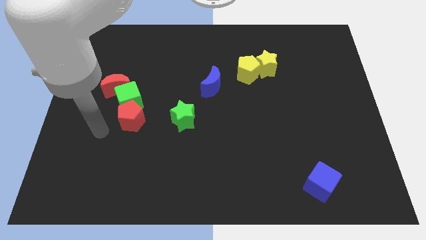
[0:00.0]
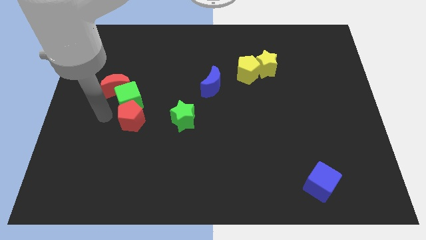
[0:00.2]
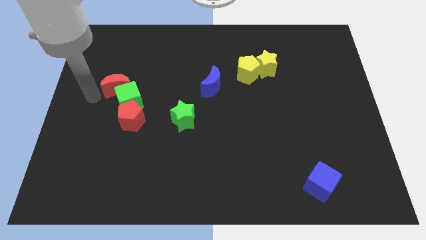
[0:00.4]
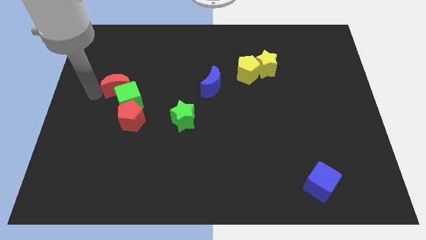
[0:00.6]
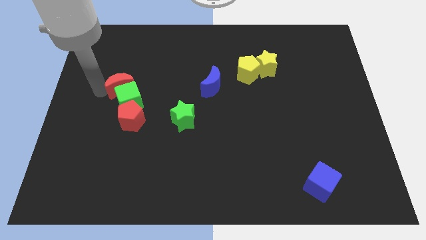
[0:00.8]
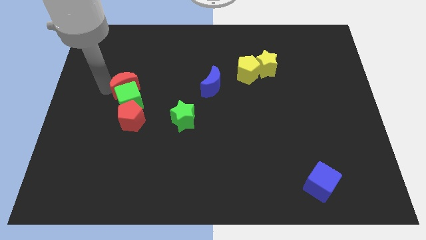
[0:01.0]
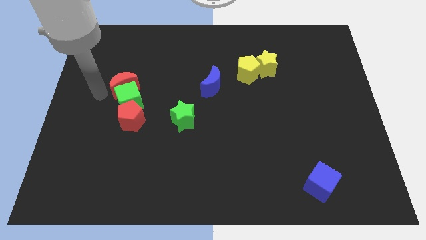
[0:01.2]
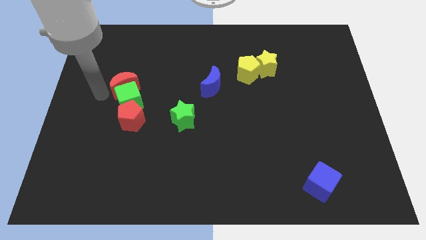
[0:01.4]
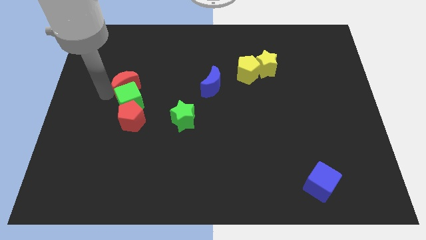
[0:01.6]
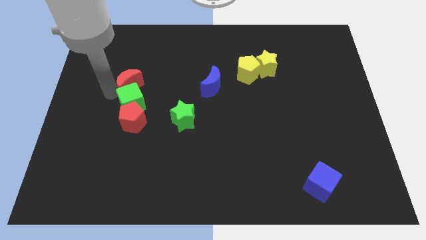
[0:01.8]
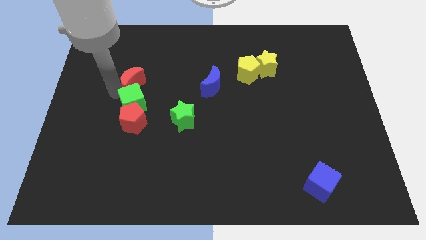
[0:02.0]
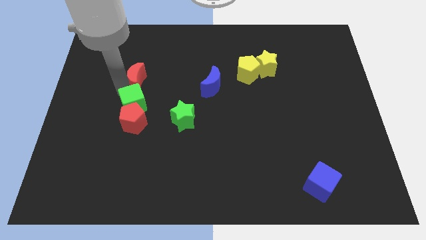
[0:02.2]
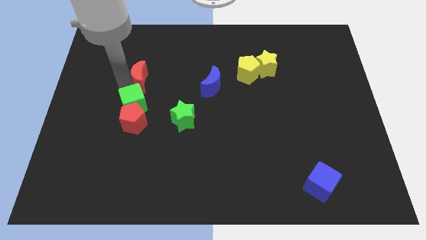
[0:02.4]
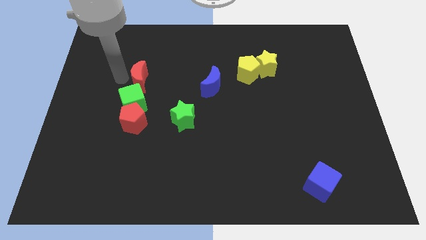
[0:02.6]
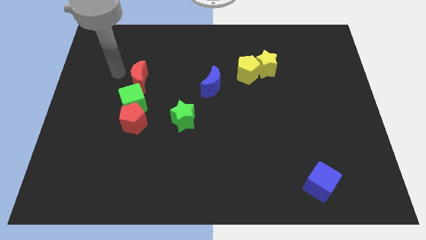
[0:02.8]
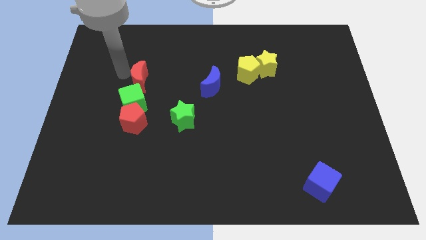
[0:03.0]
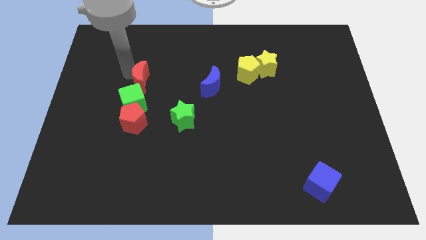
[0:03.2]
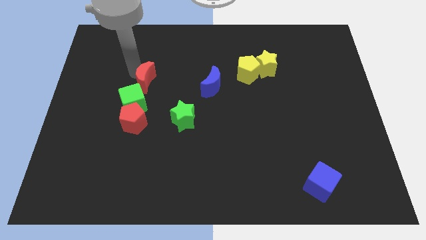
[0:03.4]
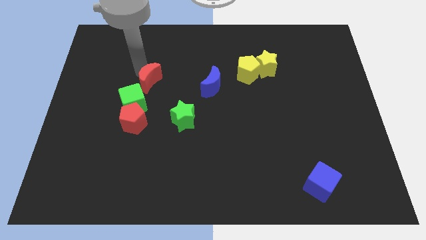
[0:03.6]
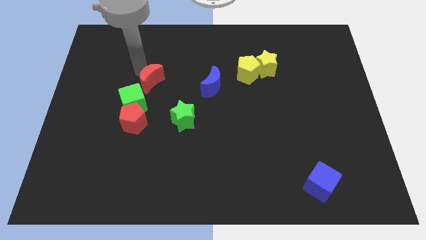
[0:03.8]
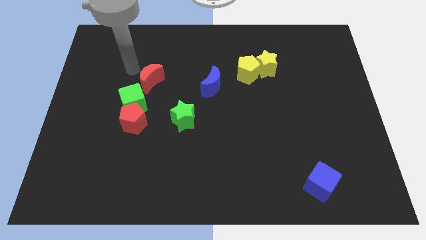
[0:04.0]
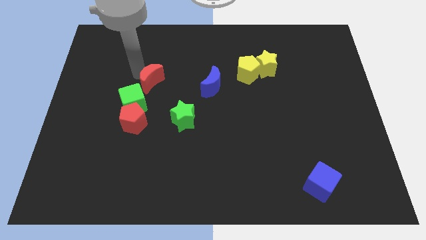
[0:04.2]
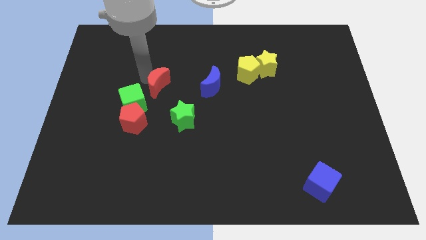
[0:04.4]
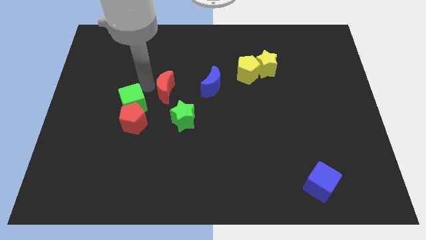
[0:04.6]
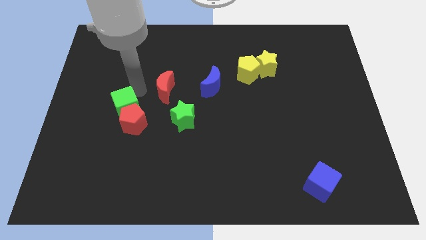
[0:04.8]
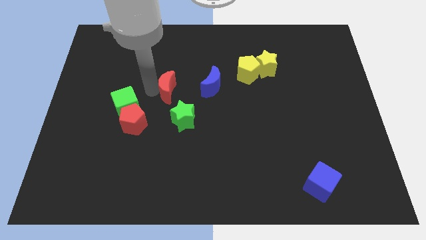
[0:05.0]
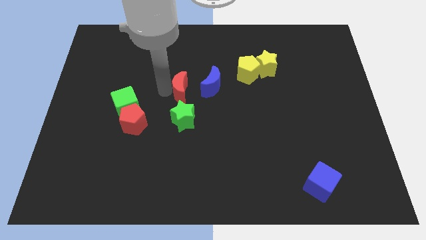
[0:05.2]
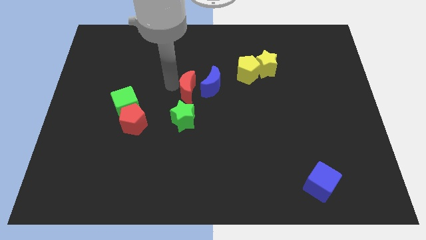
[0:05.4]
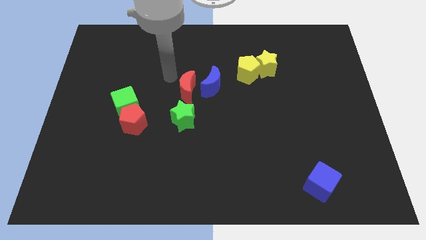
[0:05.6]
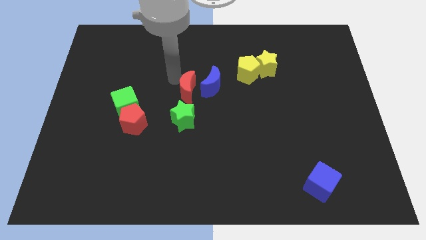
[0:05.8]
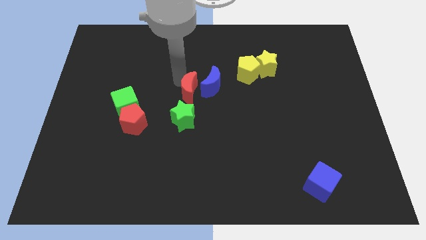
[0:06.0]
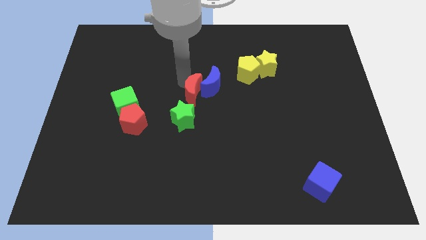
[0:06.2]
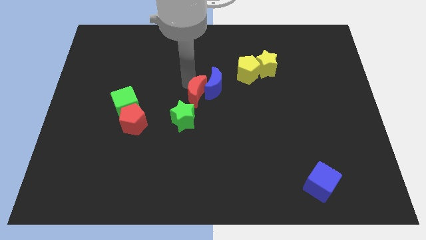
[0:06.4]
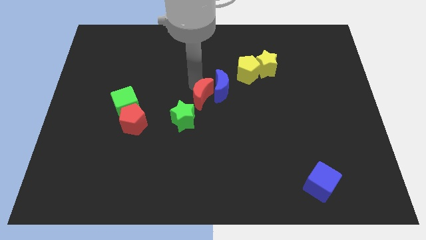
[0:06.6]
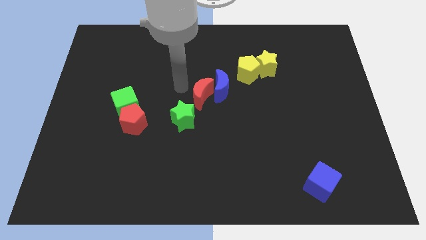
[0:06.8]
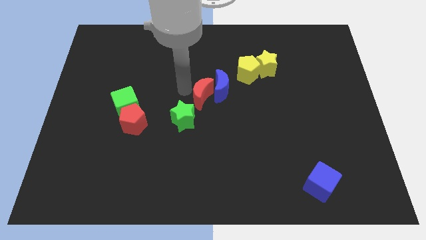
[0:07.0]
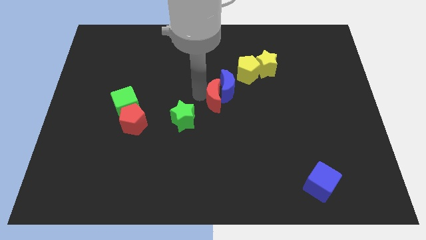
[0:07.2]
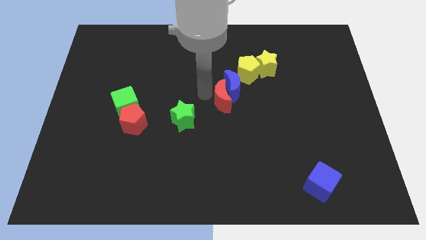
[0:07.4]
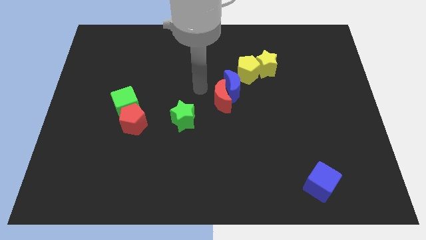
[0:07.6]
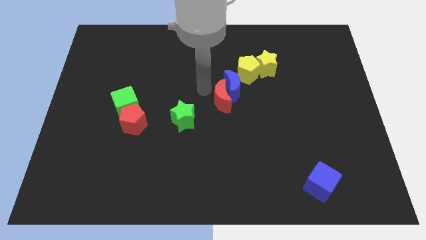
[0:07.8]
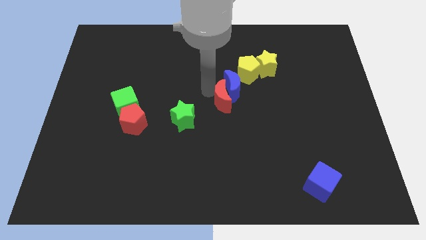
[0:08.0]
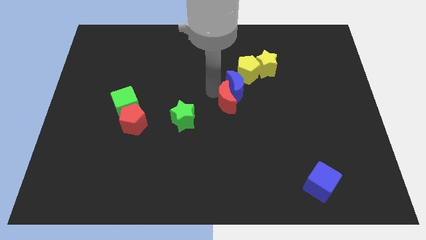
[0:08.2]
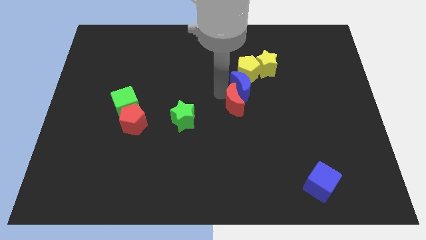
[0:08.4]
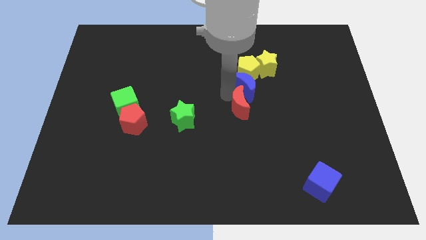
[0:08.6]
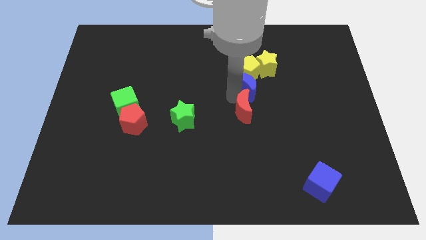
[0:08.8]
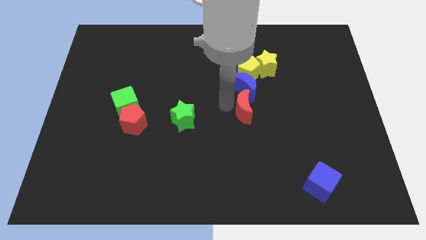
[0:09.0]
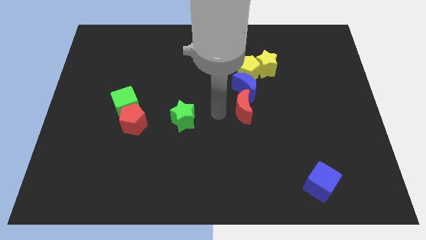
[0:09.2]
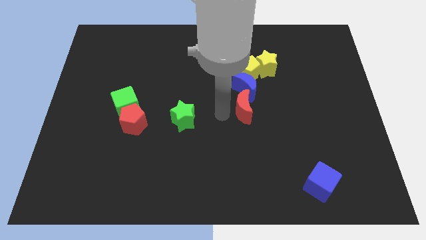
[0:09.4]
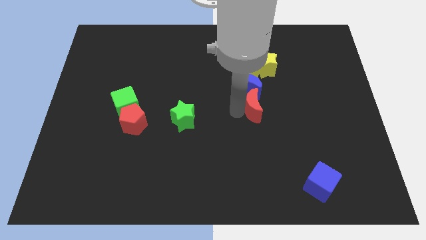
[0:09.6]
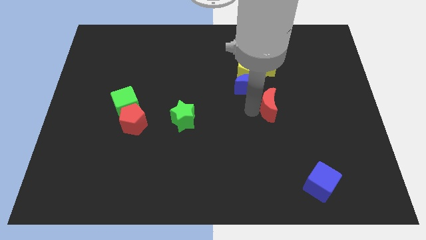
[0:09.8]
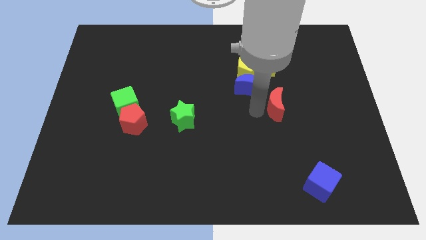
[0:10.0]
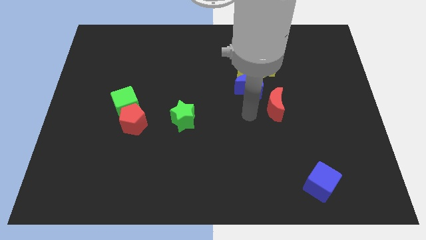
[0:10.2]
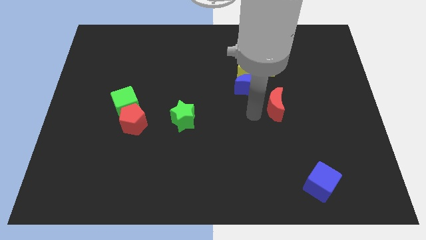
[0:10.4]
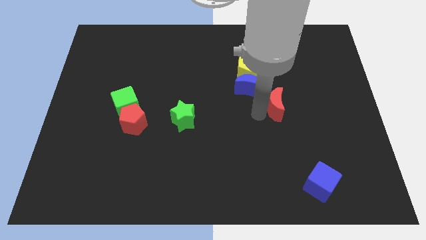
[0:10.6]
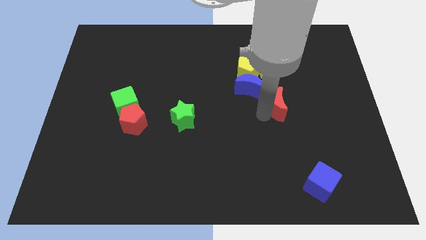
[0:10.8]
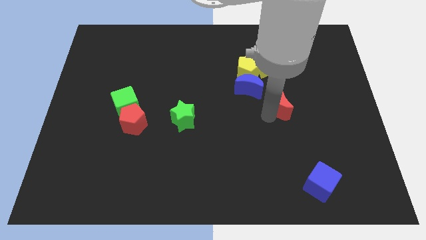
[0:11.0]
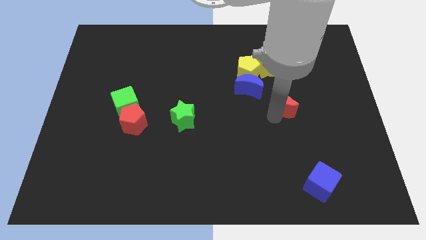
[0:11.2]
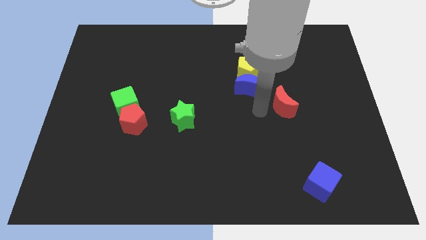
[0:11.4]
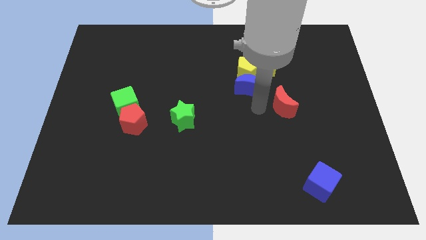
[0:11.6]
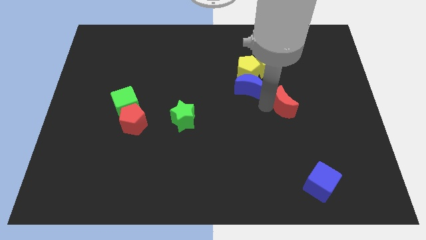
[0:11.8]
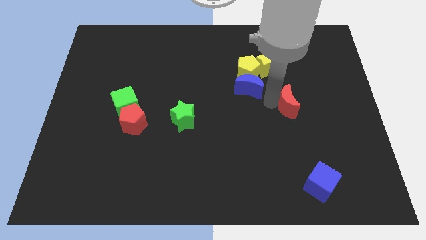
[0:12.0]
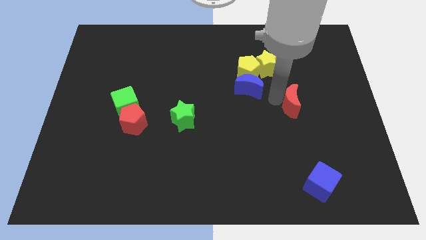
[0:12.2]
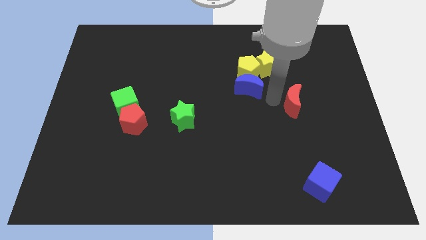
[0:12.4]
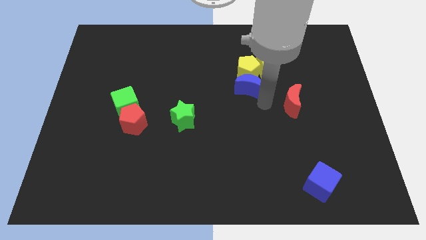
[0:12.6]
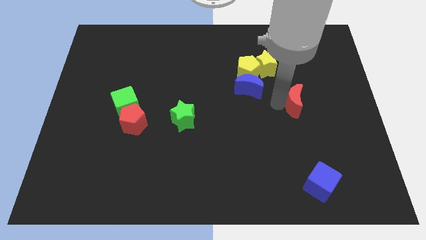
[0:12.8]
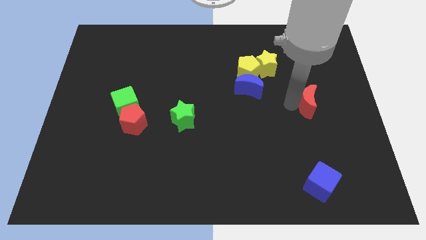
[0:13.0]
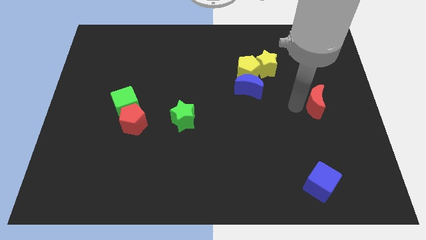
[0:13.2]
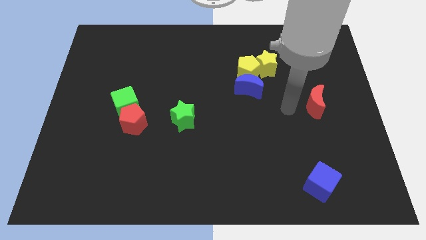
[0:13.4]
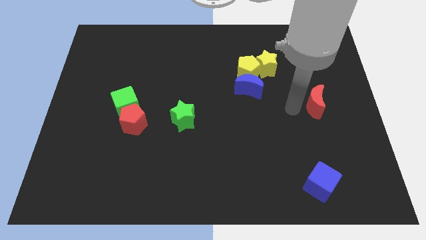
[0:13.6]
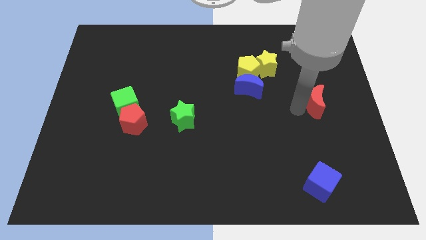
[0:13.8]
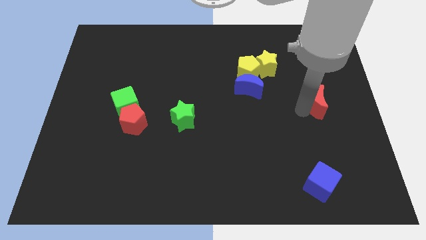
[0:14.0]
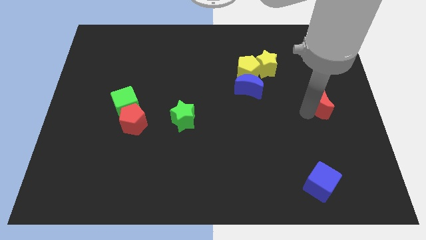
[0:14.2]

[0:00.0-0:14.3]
slide the red moon to the center right

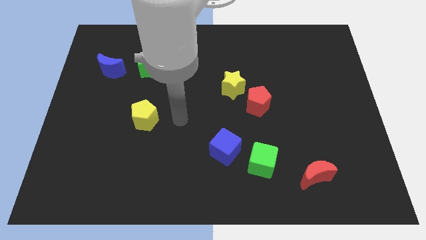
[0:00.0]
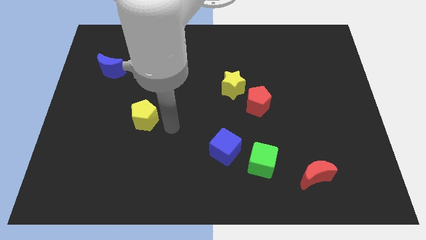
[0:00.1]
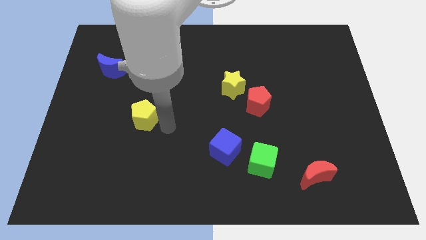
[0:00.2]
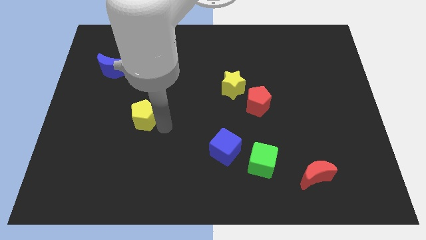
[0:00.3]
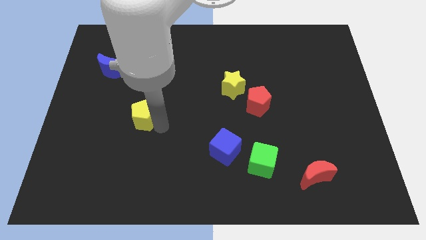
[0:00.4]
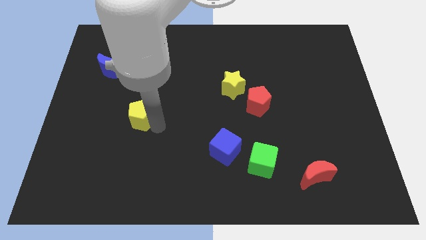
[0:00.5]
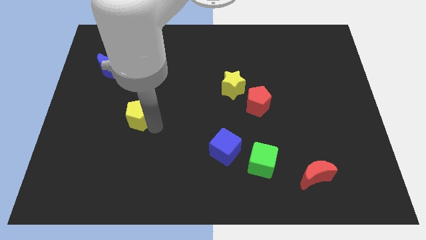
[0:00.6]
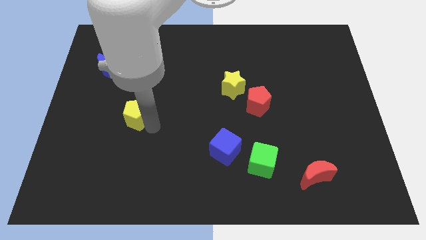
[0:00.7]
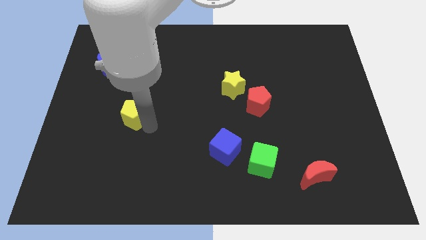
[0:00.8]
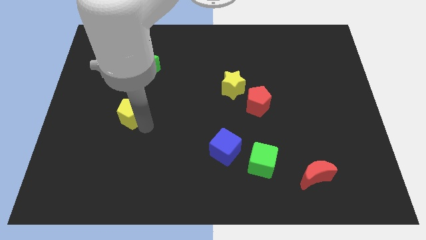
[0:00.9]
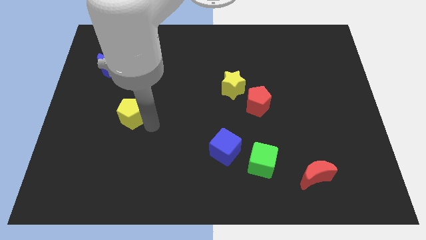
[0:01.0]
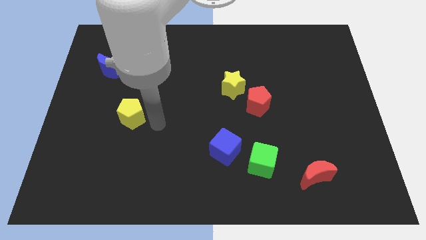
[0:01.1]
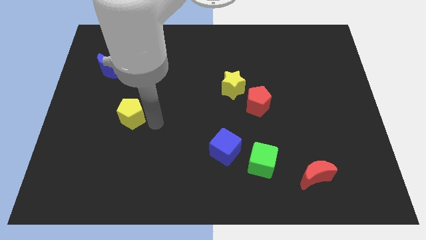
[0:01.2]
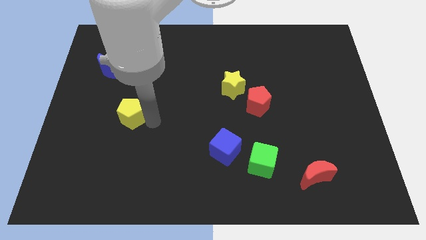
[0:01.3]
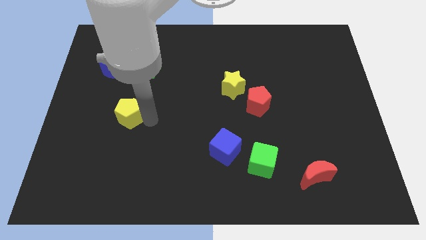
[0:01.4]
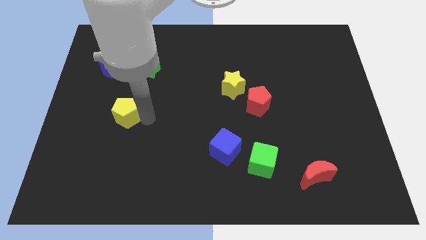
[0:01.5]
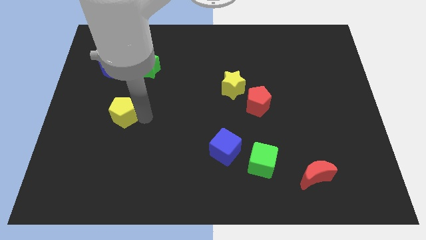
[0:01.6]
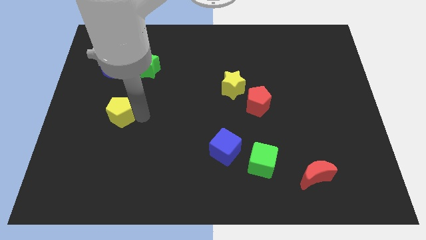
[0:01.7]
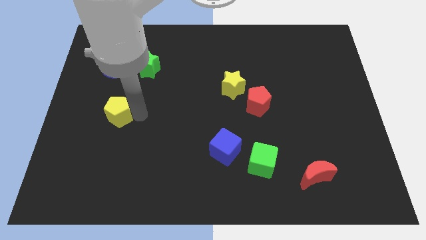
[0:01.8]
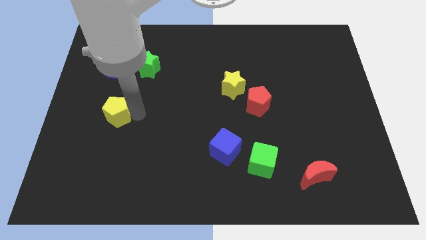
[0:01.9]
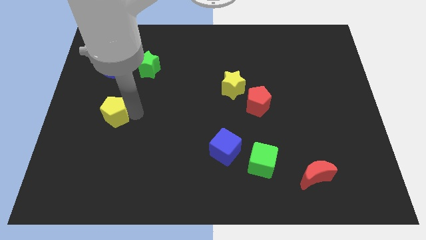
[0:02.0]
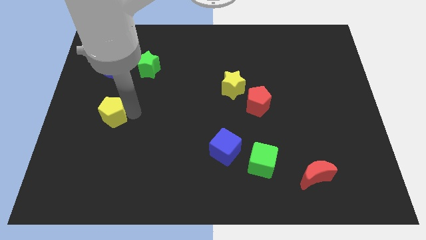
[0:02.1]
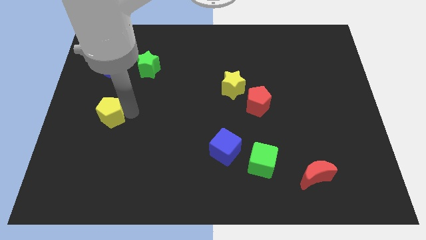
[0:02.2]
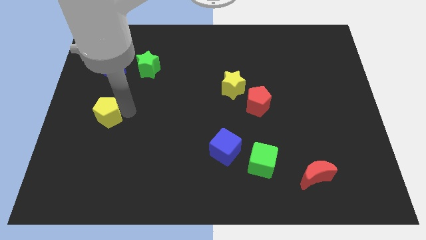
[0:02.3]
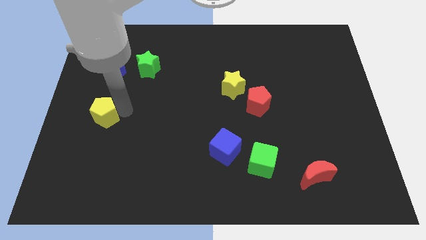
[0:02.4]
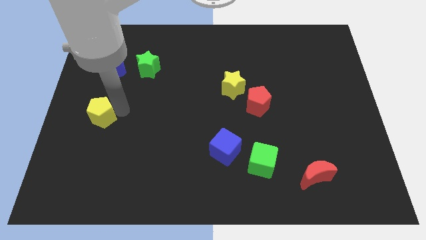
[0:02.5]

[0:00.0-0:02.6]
put the yellow pentagon to the center left
